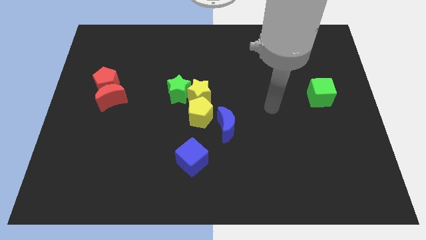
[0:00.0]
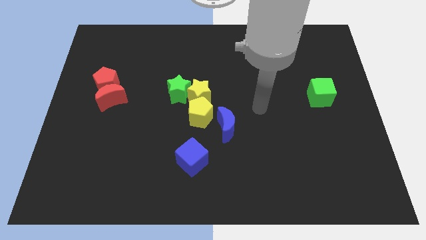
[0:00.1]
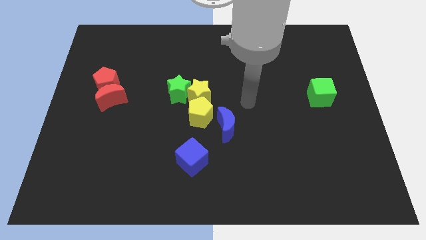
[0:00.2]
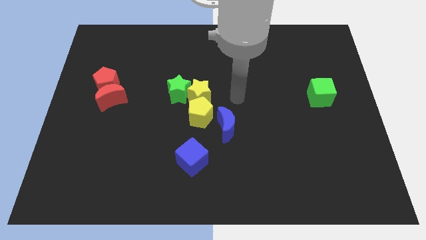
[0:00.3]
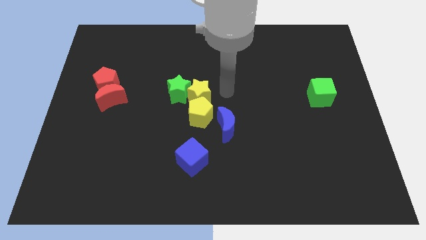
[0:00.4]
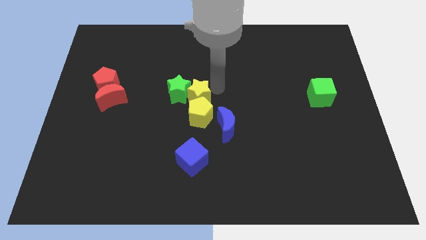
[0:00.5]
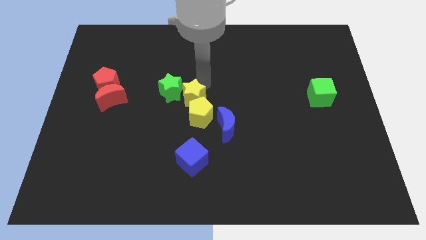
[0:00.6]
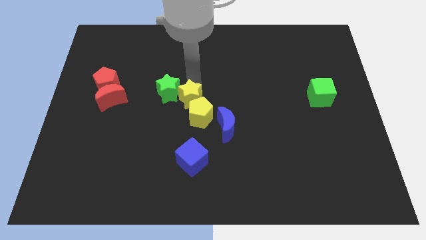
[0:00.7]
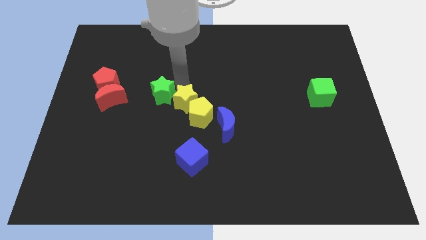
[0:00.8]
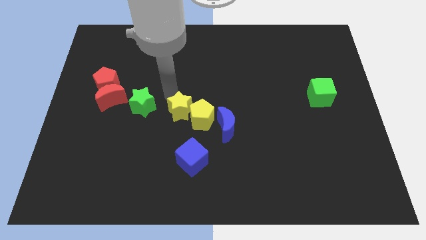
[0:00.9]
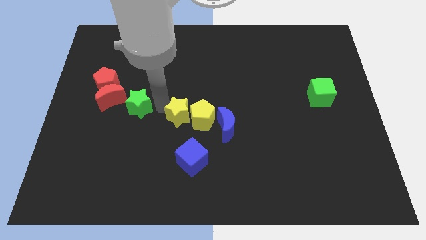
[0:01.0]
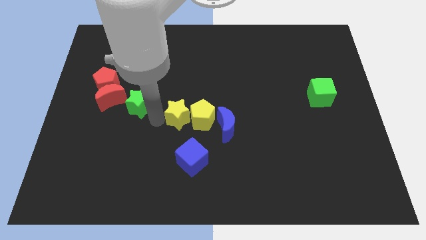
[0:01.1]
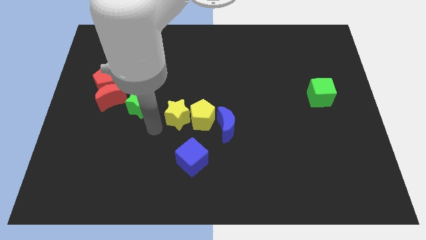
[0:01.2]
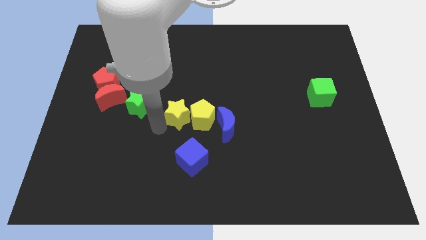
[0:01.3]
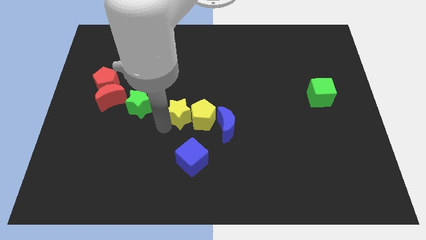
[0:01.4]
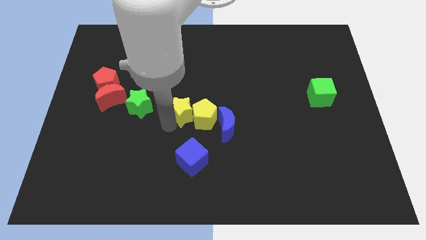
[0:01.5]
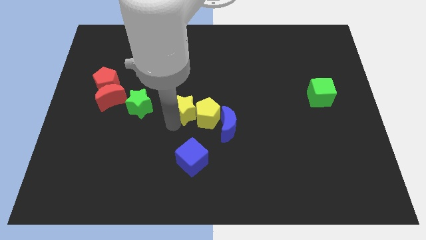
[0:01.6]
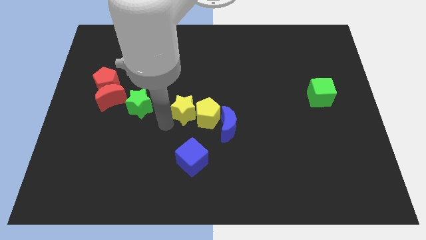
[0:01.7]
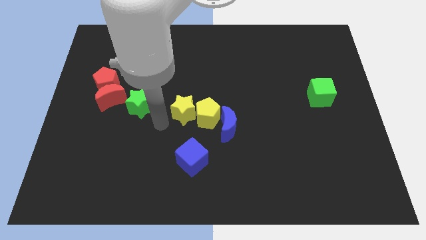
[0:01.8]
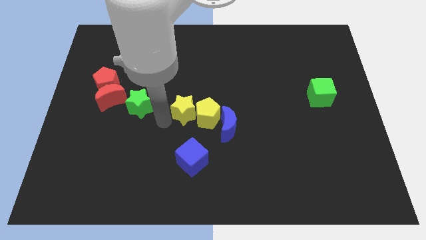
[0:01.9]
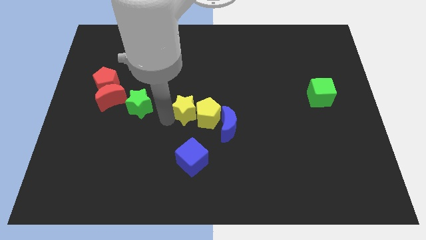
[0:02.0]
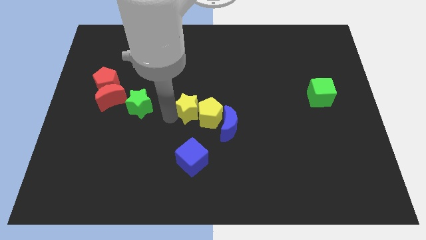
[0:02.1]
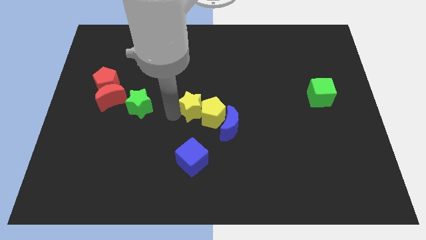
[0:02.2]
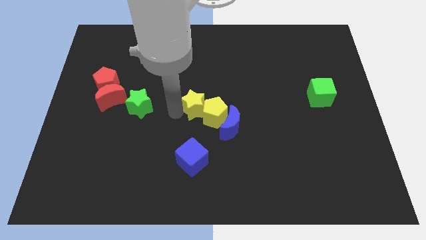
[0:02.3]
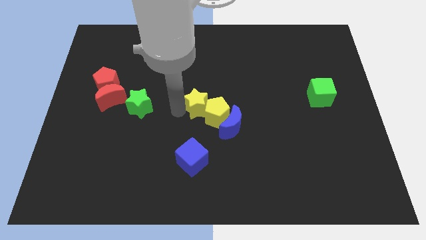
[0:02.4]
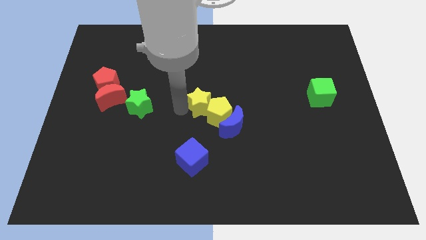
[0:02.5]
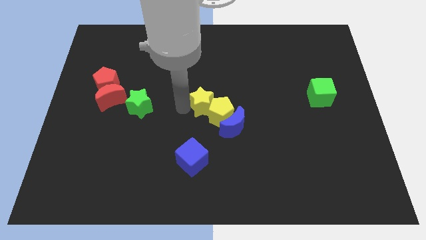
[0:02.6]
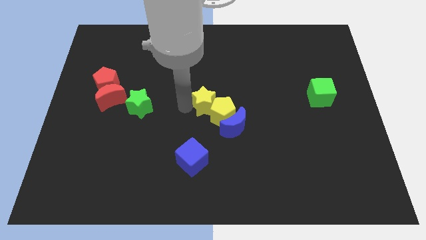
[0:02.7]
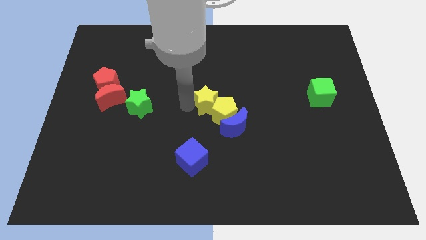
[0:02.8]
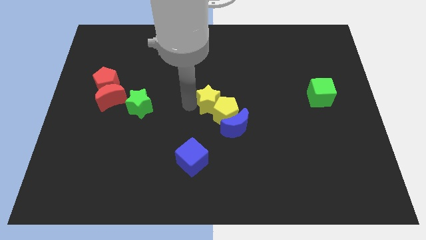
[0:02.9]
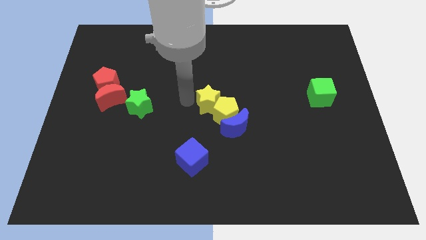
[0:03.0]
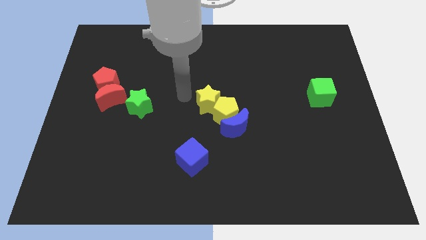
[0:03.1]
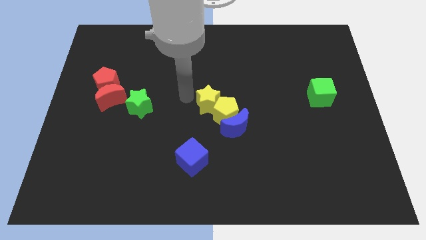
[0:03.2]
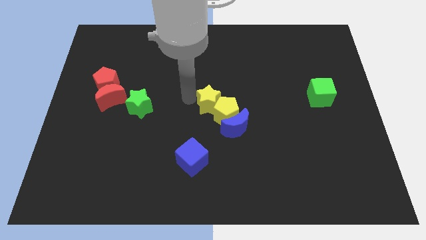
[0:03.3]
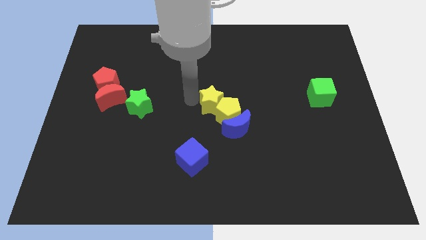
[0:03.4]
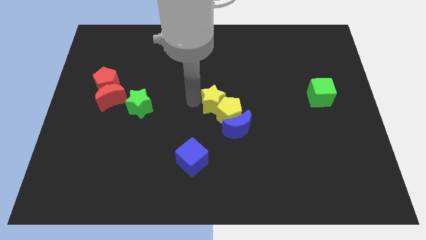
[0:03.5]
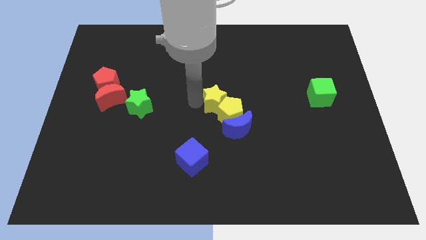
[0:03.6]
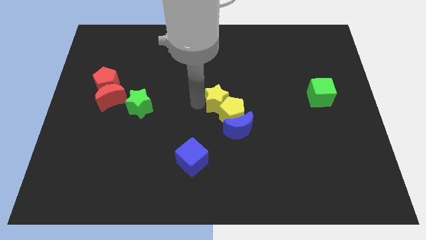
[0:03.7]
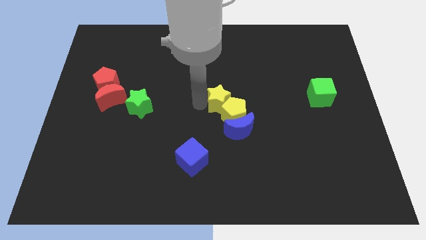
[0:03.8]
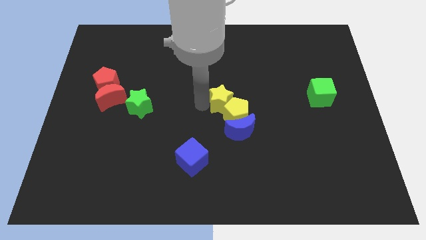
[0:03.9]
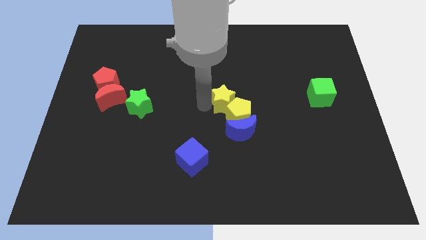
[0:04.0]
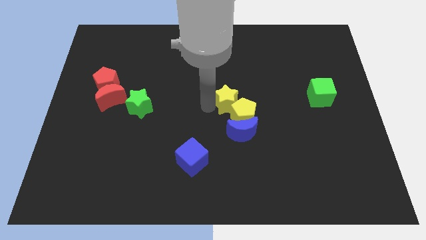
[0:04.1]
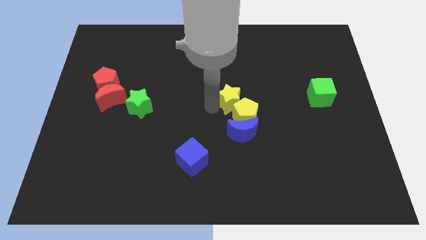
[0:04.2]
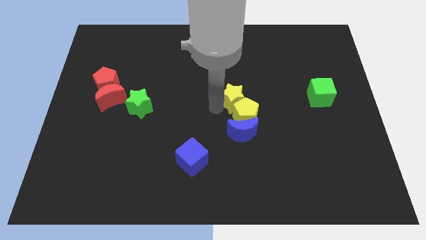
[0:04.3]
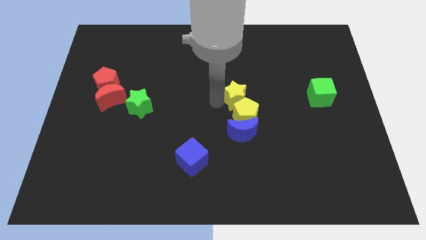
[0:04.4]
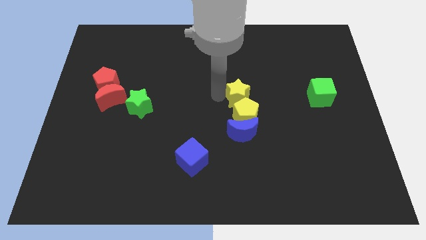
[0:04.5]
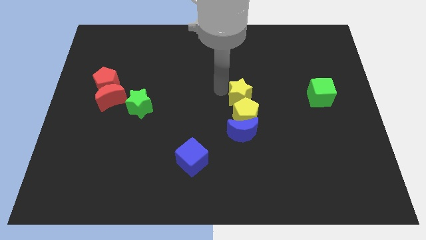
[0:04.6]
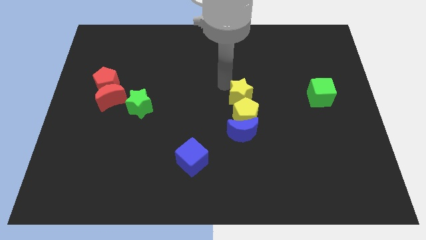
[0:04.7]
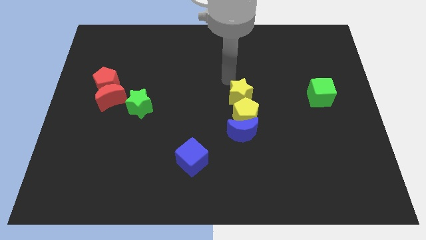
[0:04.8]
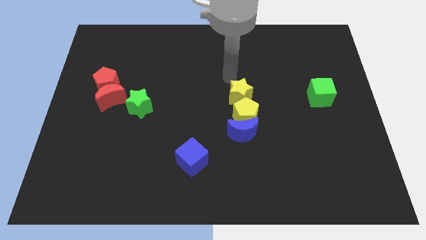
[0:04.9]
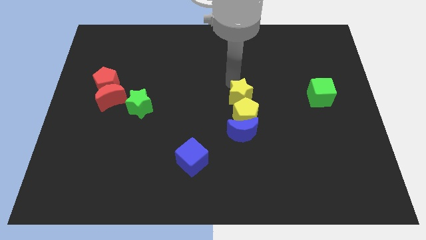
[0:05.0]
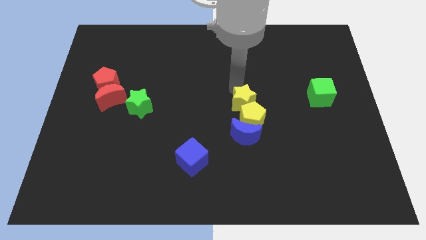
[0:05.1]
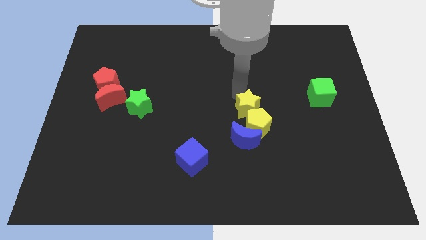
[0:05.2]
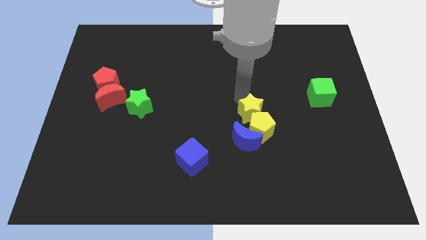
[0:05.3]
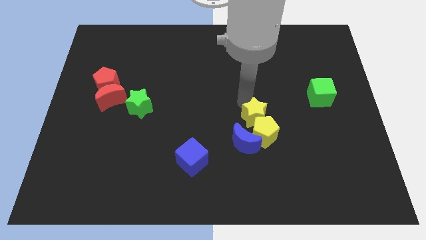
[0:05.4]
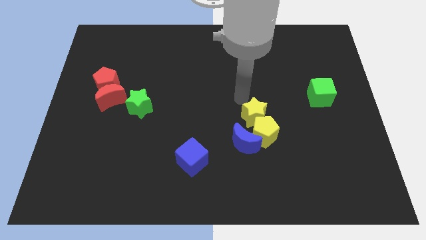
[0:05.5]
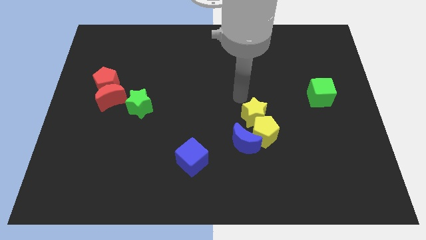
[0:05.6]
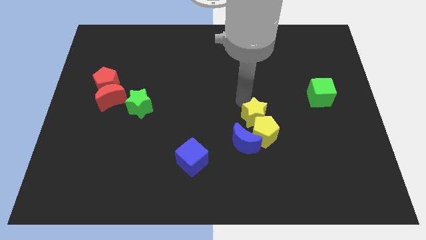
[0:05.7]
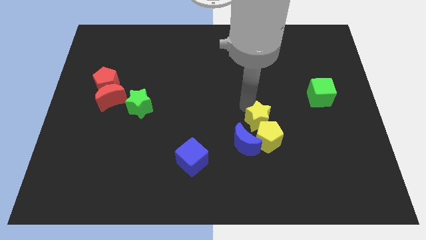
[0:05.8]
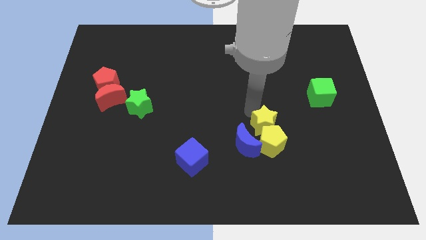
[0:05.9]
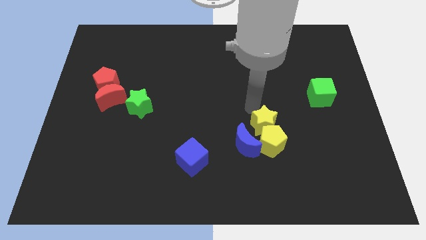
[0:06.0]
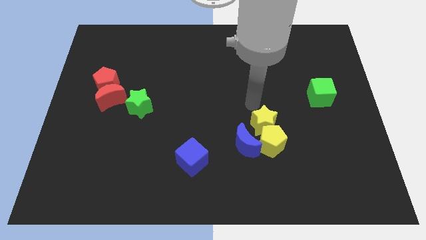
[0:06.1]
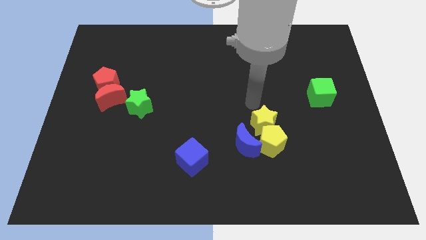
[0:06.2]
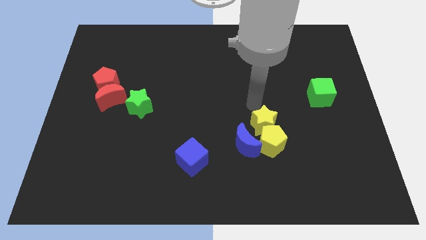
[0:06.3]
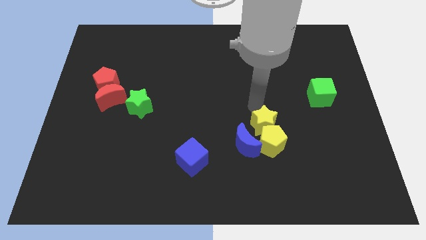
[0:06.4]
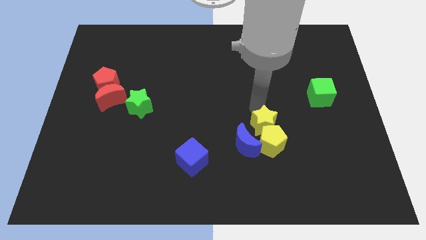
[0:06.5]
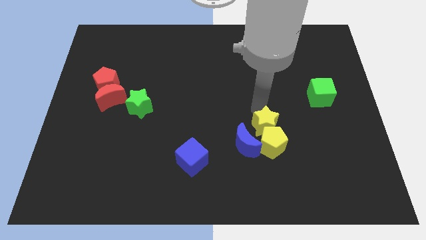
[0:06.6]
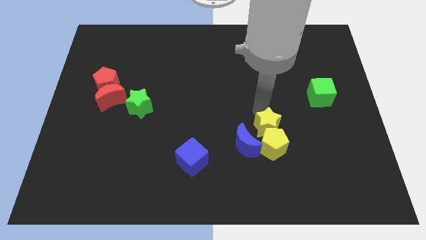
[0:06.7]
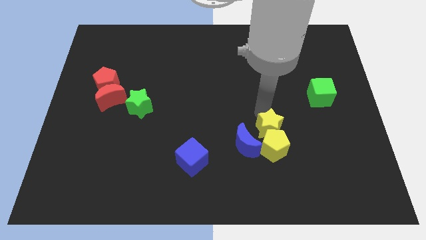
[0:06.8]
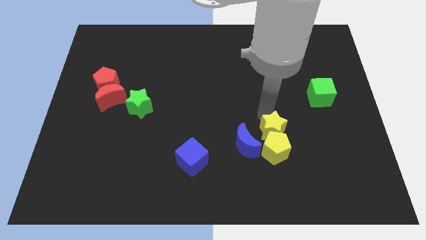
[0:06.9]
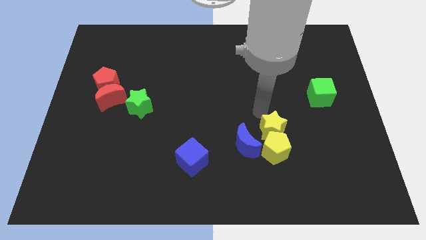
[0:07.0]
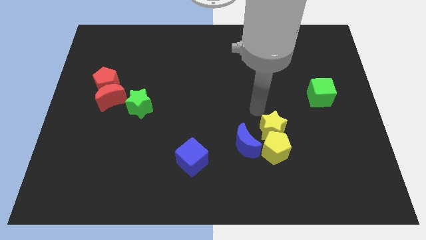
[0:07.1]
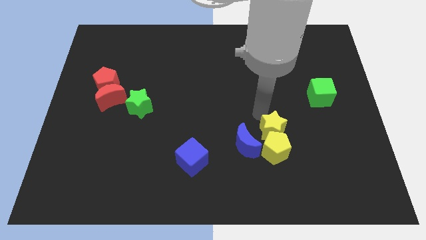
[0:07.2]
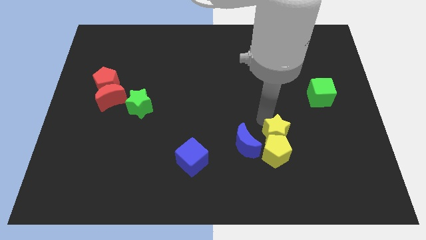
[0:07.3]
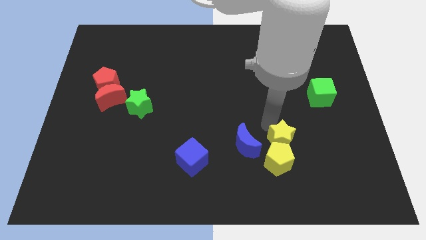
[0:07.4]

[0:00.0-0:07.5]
move the yellow star downwards and then to the right

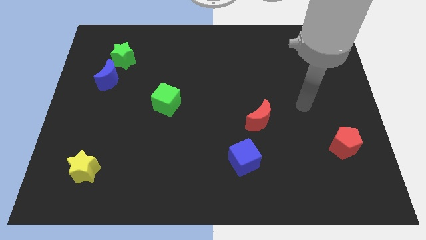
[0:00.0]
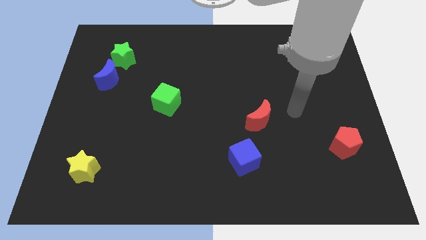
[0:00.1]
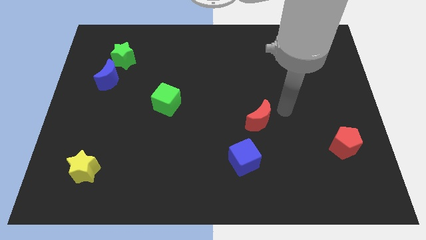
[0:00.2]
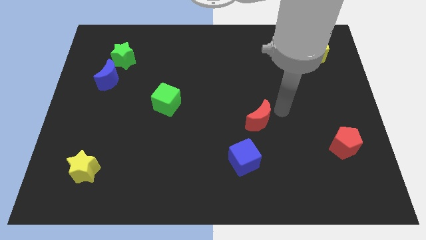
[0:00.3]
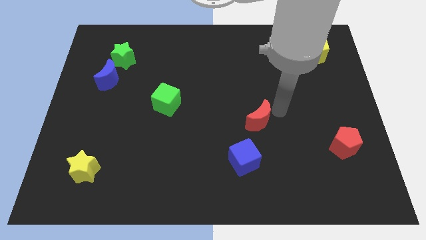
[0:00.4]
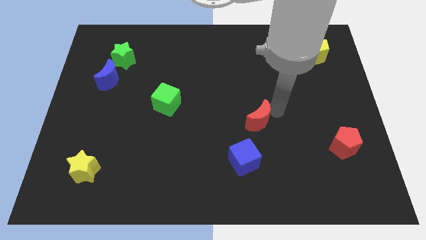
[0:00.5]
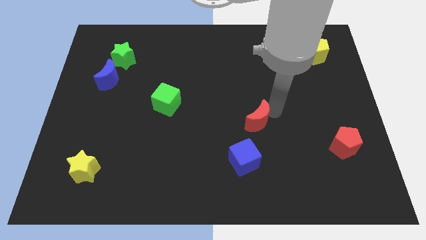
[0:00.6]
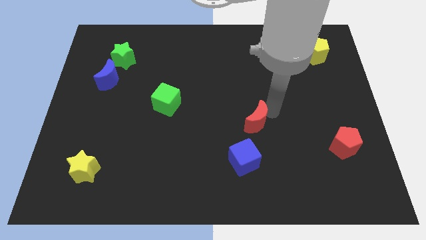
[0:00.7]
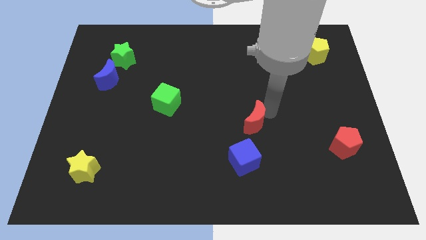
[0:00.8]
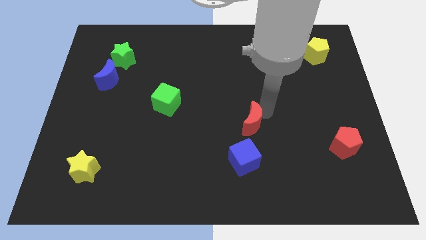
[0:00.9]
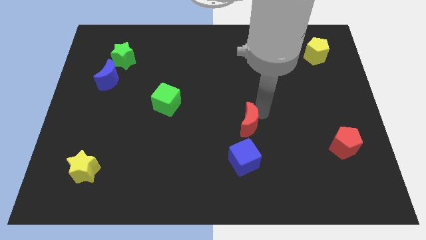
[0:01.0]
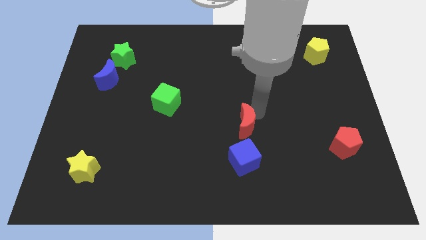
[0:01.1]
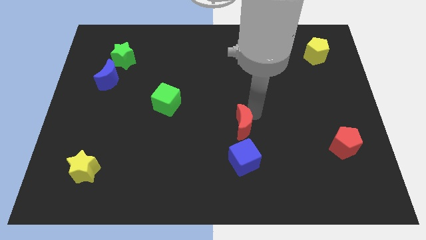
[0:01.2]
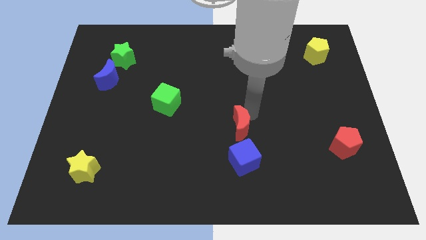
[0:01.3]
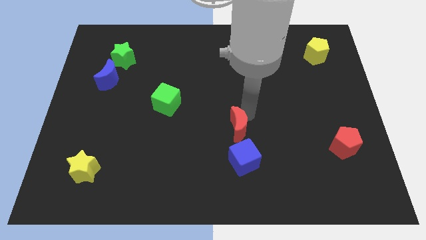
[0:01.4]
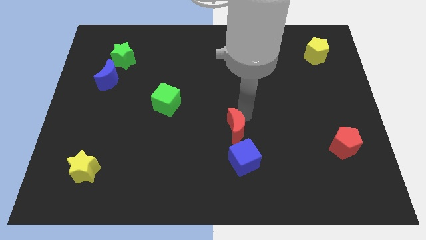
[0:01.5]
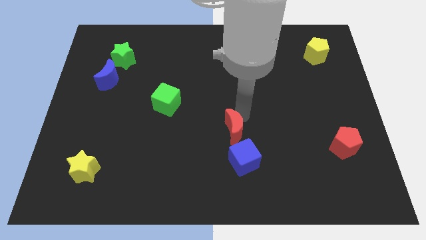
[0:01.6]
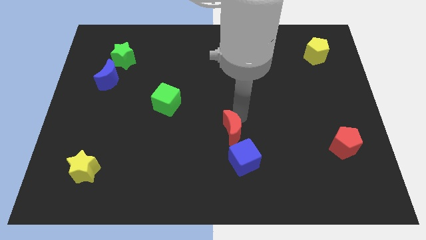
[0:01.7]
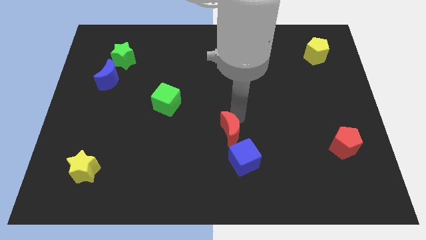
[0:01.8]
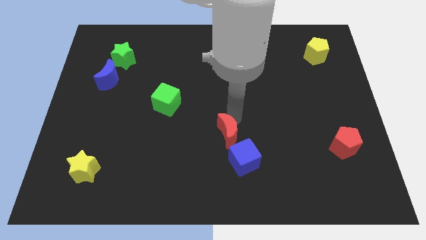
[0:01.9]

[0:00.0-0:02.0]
move the red moon a bit down and left
